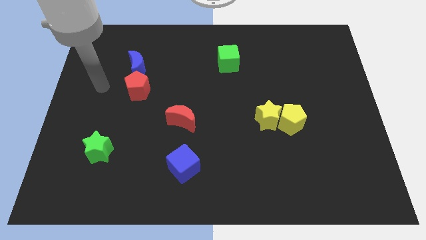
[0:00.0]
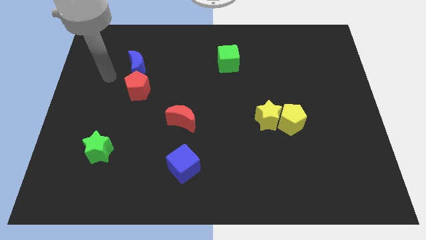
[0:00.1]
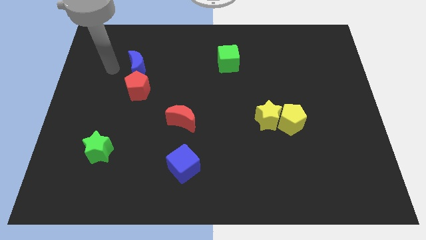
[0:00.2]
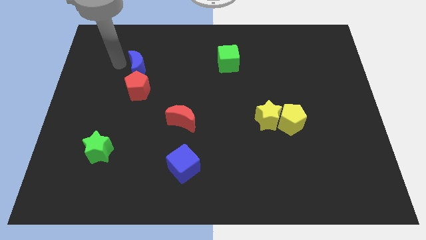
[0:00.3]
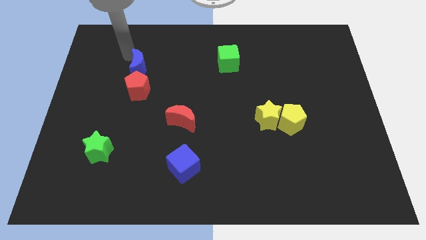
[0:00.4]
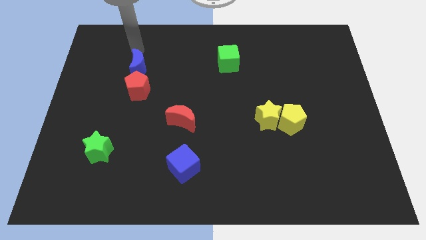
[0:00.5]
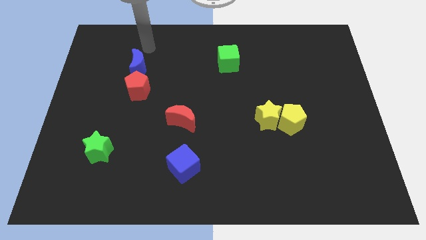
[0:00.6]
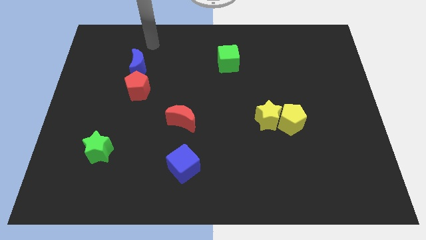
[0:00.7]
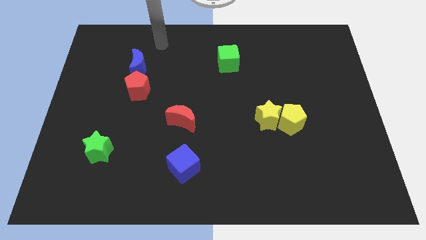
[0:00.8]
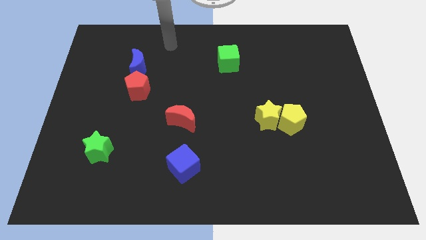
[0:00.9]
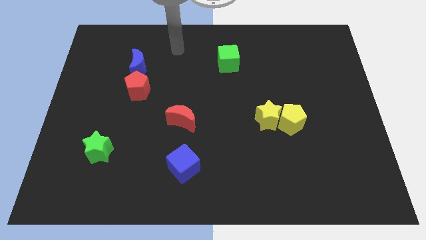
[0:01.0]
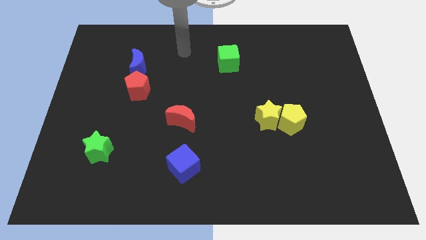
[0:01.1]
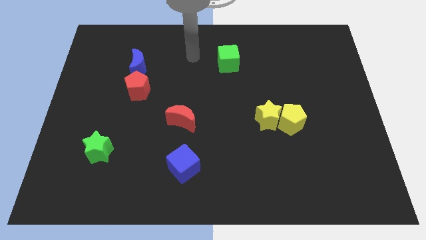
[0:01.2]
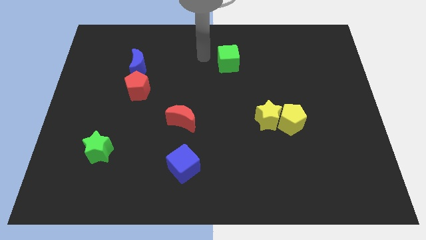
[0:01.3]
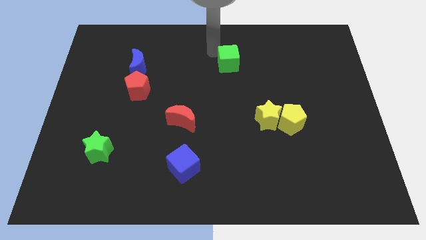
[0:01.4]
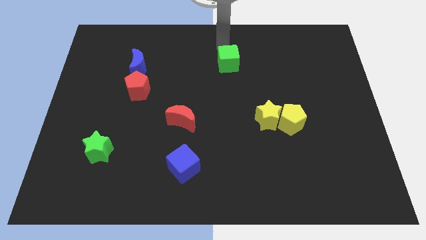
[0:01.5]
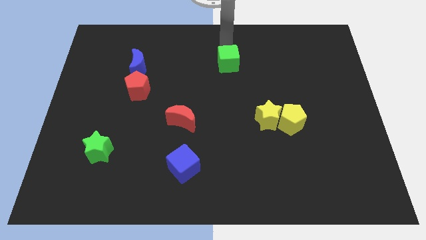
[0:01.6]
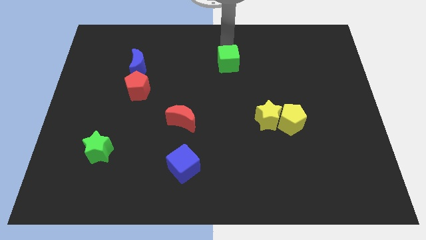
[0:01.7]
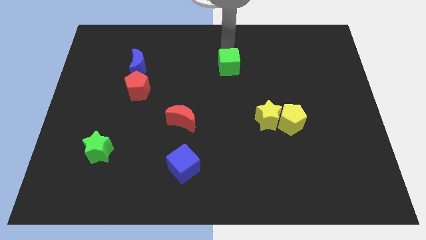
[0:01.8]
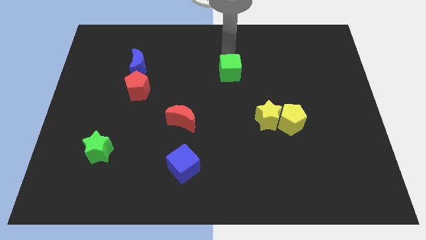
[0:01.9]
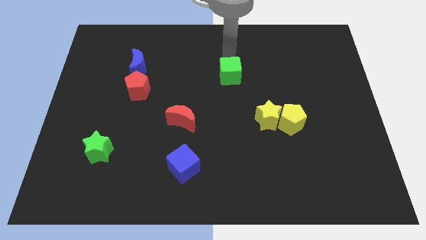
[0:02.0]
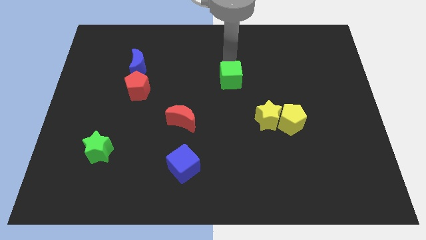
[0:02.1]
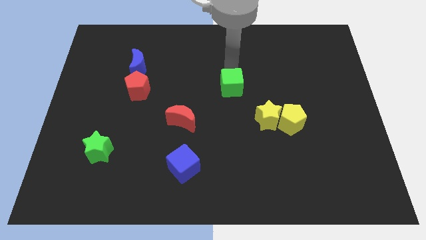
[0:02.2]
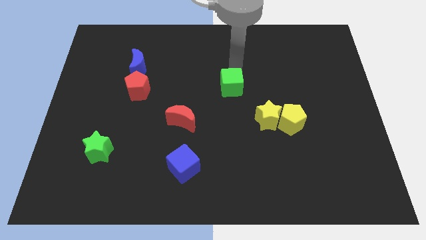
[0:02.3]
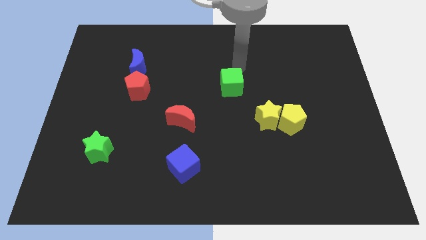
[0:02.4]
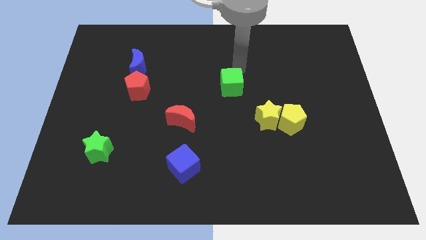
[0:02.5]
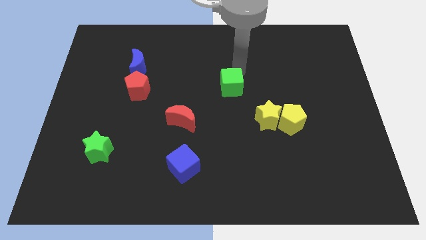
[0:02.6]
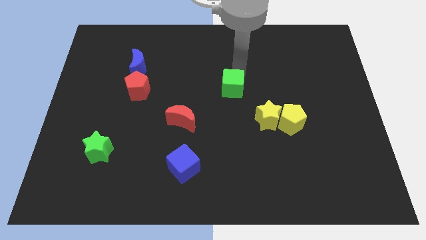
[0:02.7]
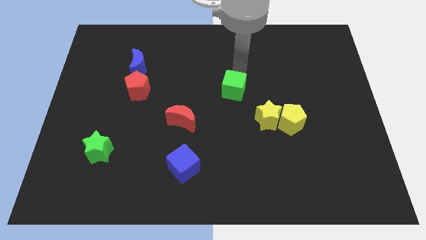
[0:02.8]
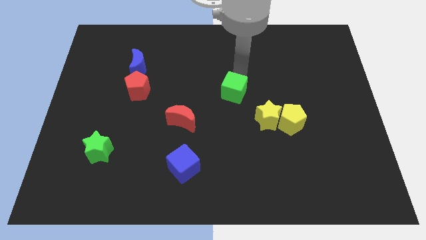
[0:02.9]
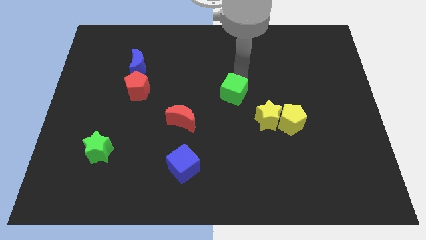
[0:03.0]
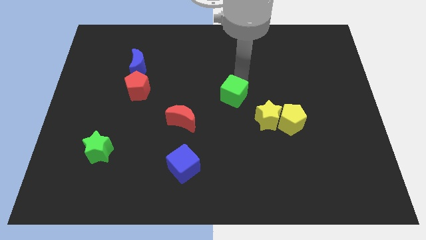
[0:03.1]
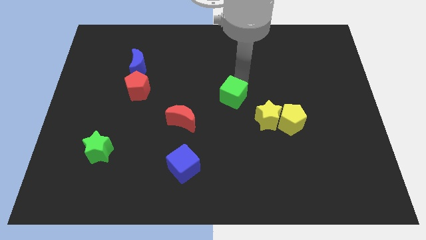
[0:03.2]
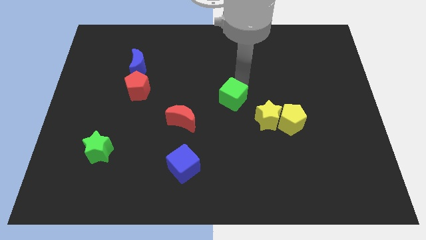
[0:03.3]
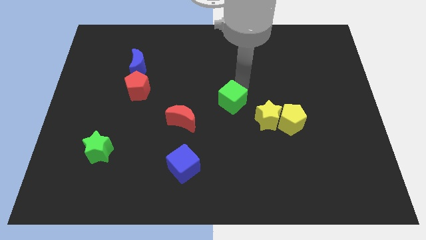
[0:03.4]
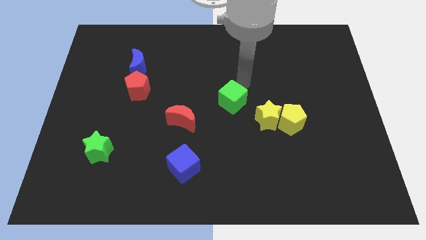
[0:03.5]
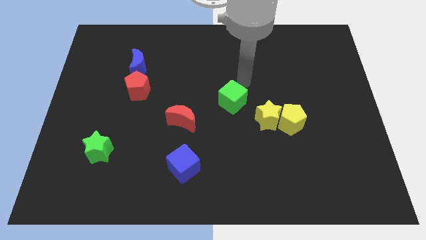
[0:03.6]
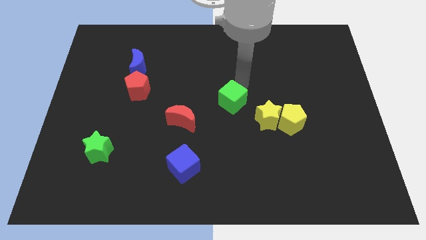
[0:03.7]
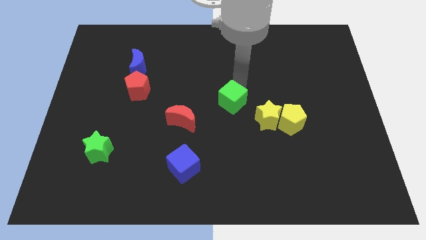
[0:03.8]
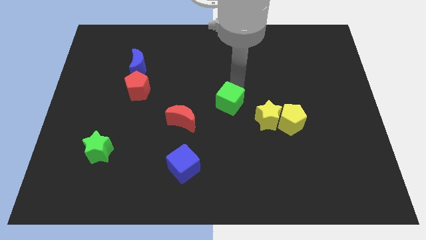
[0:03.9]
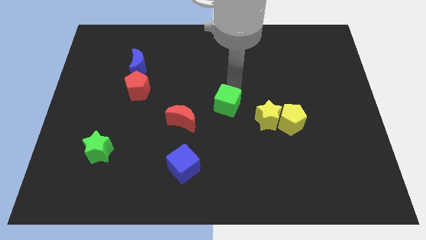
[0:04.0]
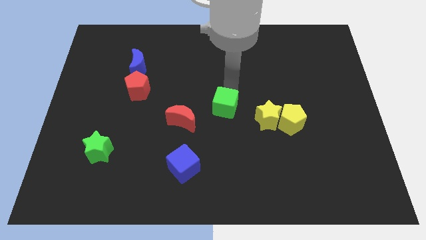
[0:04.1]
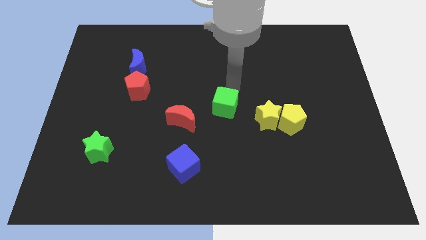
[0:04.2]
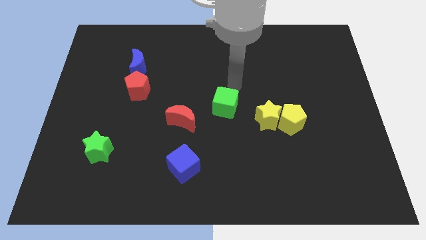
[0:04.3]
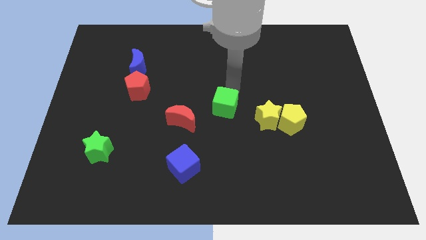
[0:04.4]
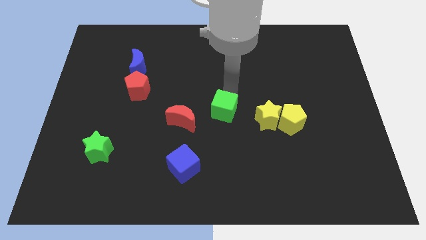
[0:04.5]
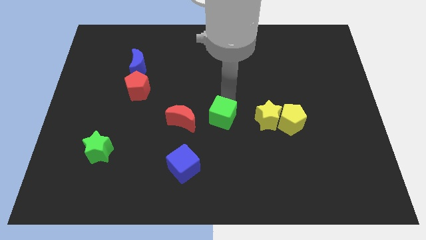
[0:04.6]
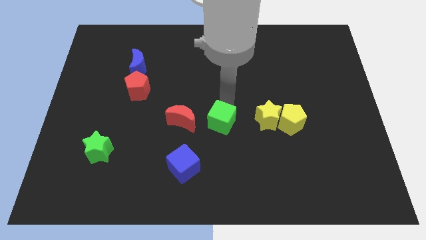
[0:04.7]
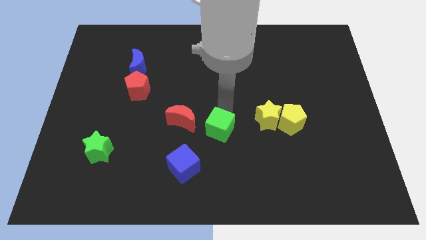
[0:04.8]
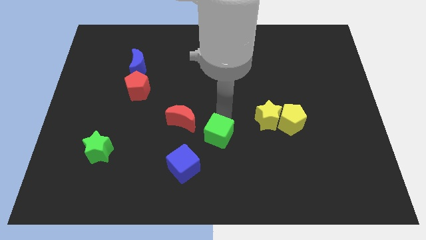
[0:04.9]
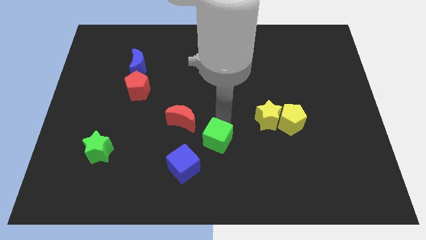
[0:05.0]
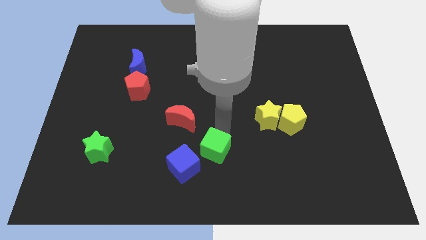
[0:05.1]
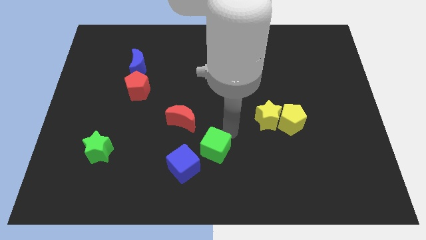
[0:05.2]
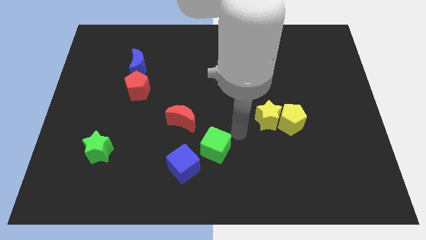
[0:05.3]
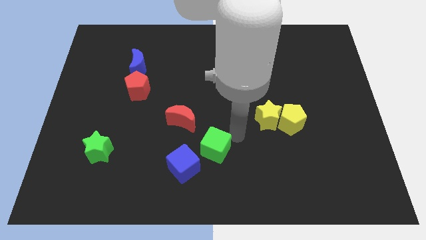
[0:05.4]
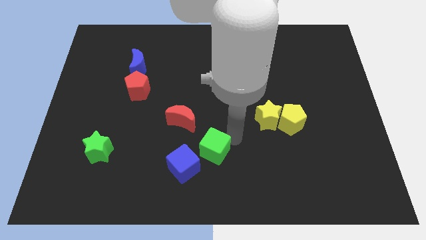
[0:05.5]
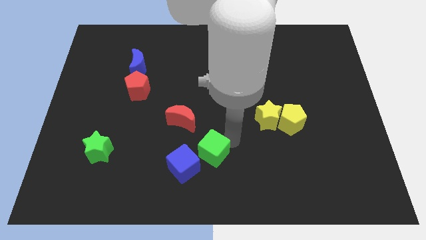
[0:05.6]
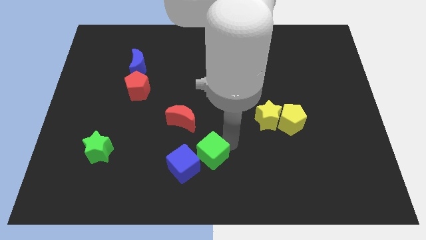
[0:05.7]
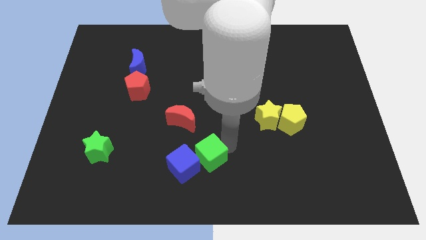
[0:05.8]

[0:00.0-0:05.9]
push the green cube towards the blue cube

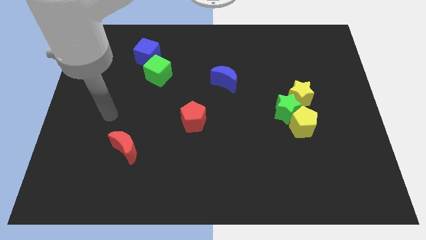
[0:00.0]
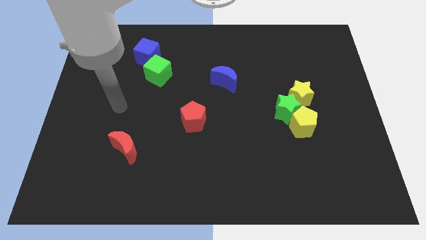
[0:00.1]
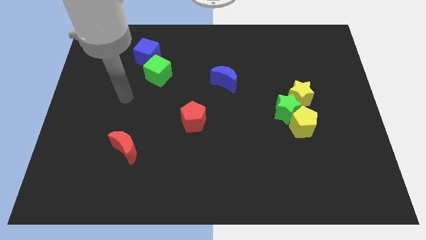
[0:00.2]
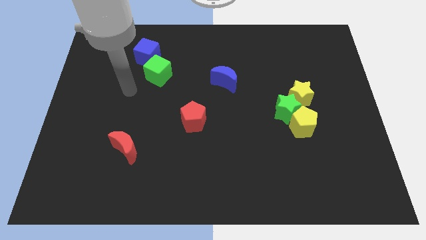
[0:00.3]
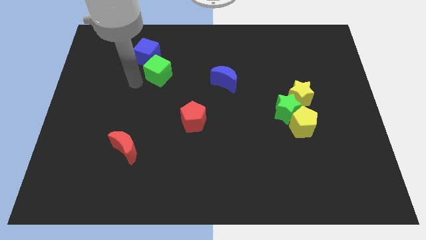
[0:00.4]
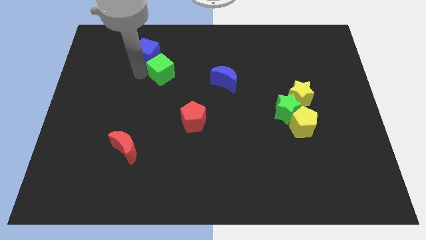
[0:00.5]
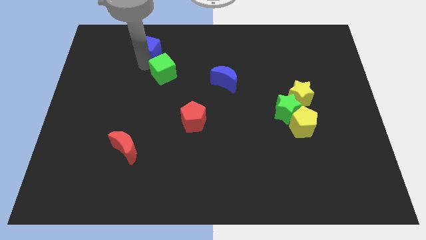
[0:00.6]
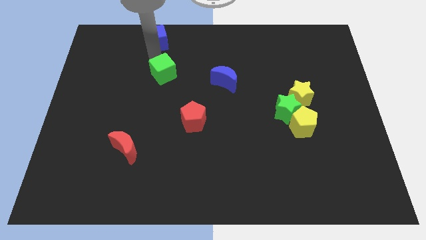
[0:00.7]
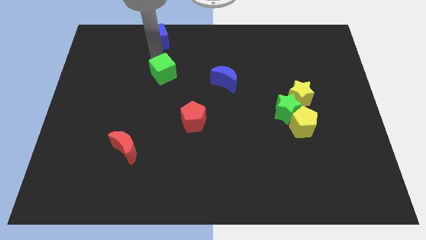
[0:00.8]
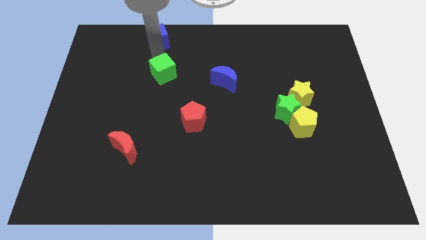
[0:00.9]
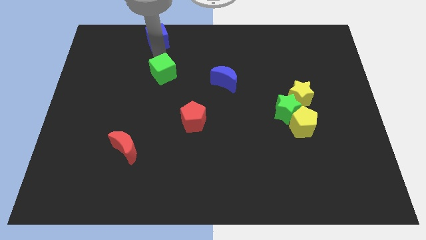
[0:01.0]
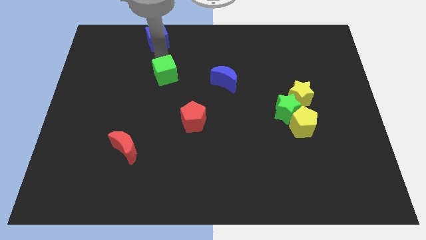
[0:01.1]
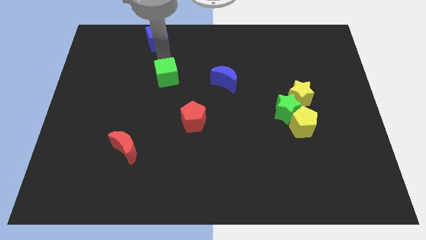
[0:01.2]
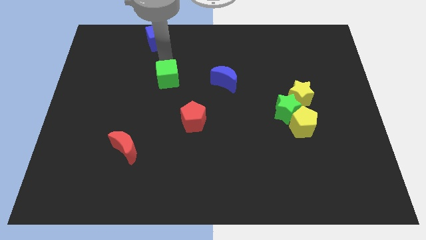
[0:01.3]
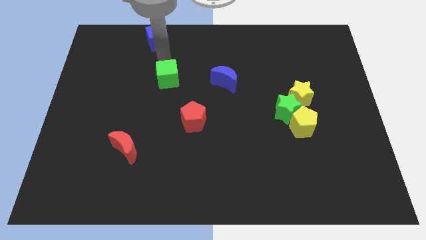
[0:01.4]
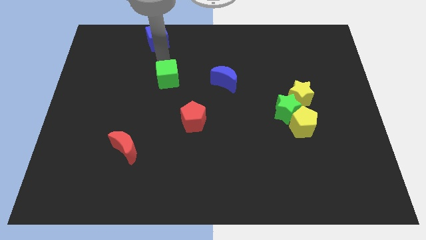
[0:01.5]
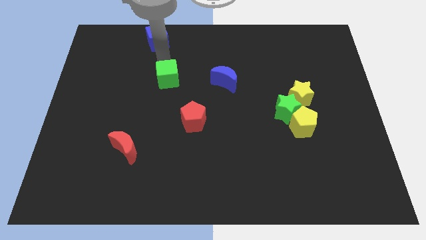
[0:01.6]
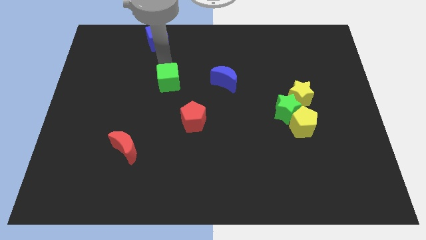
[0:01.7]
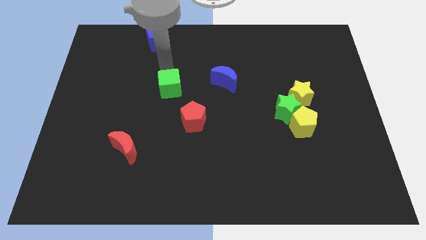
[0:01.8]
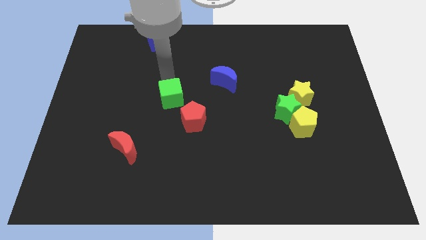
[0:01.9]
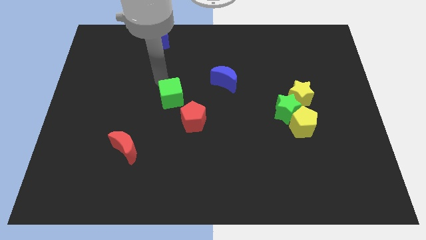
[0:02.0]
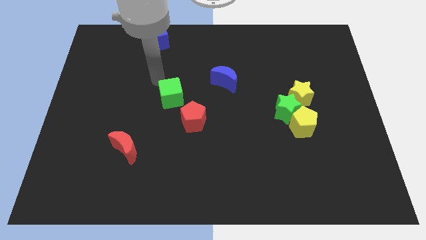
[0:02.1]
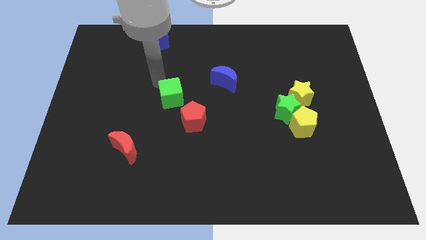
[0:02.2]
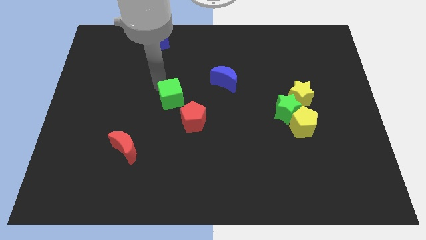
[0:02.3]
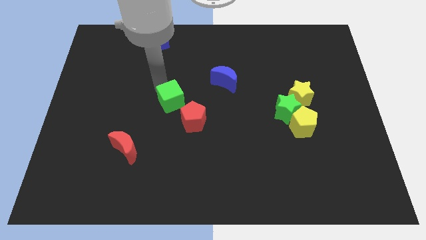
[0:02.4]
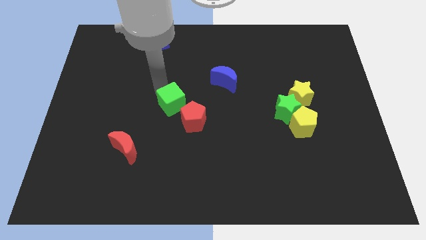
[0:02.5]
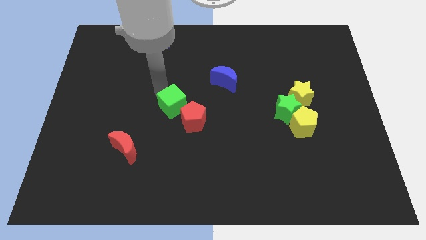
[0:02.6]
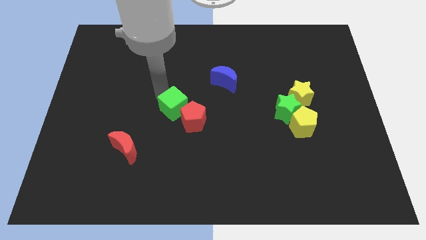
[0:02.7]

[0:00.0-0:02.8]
put the green cube next to the red pentagon
